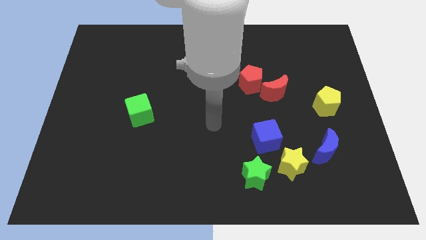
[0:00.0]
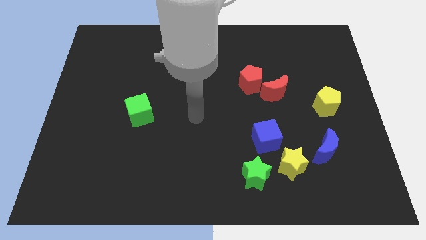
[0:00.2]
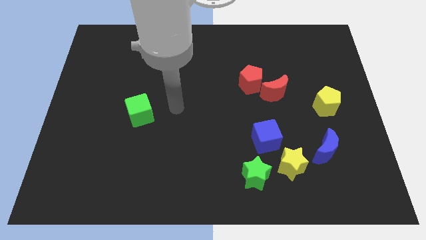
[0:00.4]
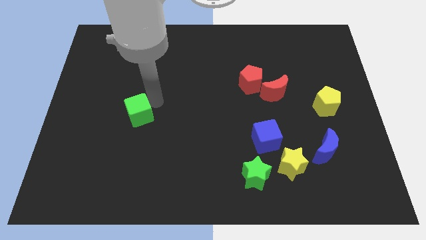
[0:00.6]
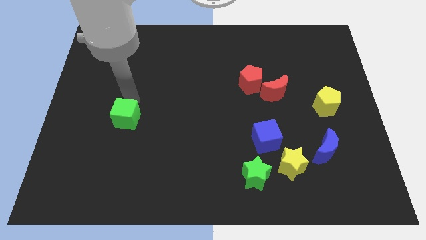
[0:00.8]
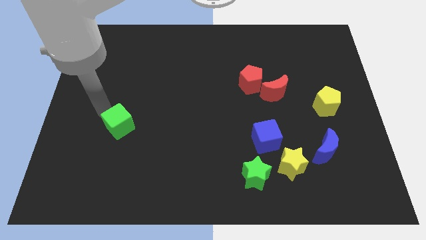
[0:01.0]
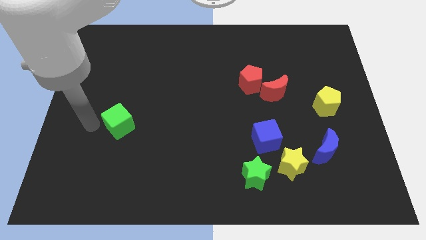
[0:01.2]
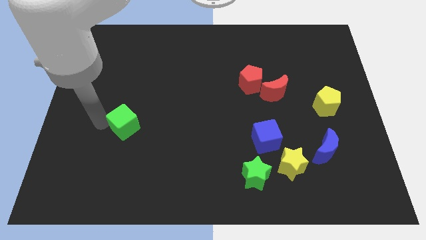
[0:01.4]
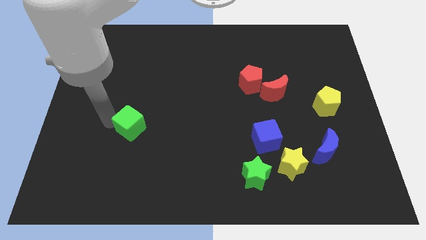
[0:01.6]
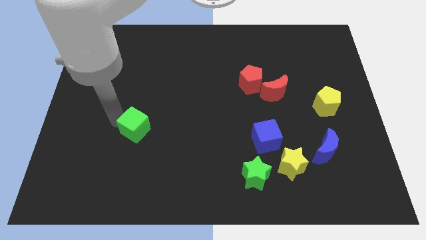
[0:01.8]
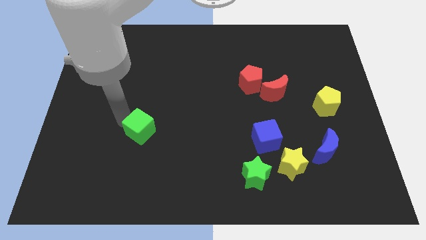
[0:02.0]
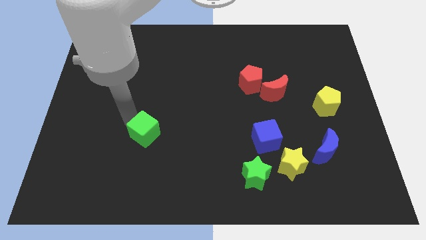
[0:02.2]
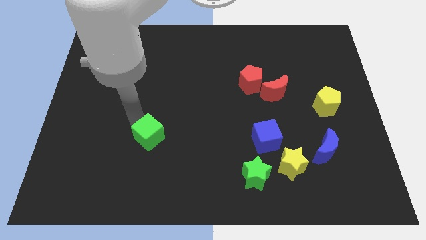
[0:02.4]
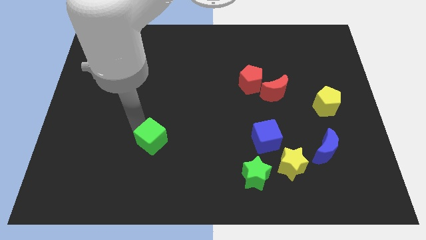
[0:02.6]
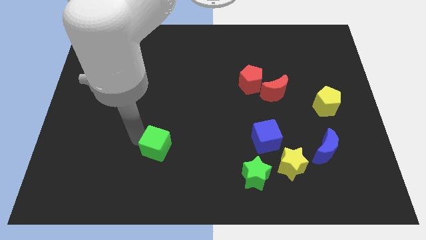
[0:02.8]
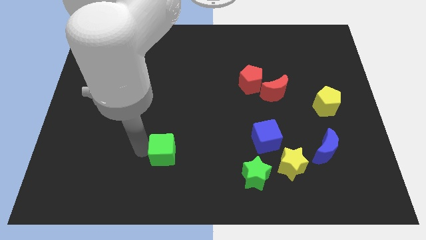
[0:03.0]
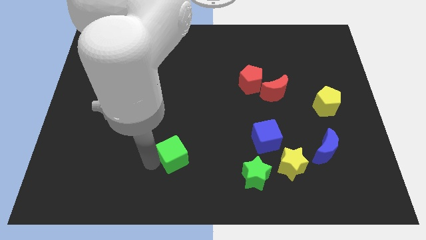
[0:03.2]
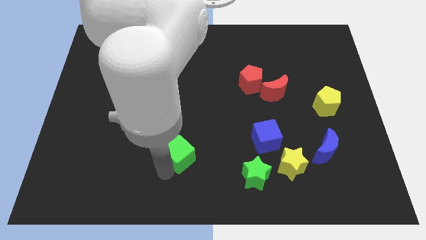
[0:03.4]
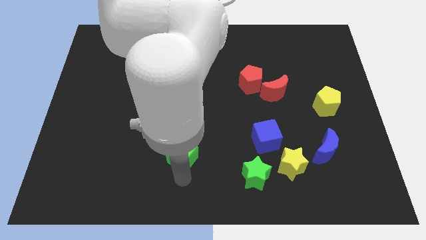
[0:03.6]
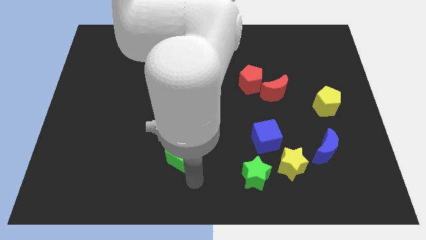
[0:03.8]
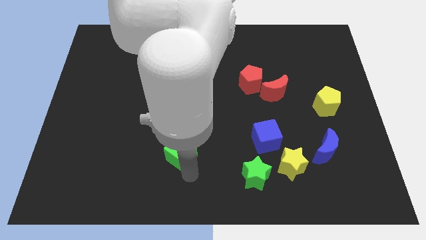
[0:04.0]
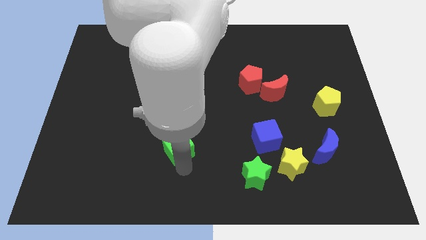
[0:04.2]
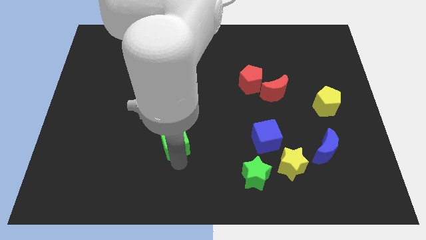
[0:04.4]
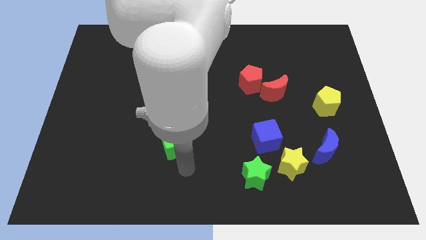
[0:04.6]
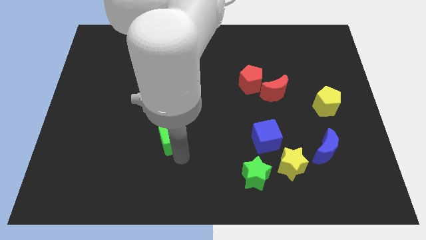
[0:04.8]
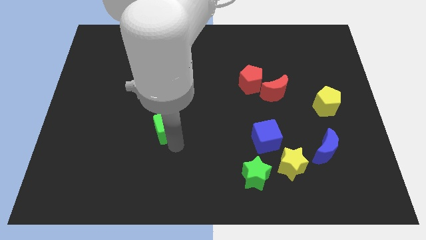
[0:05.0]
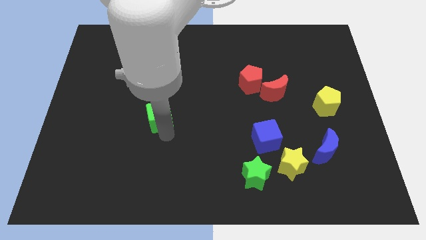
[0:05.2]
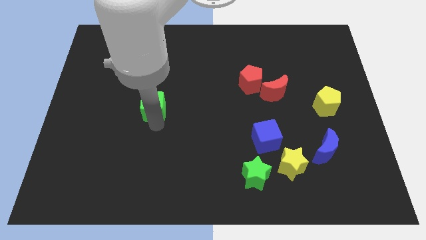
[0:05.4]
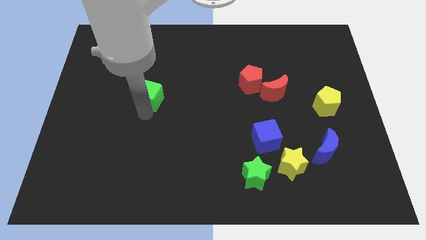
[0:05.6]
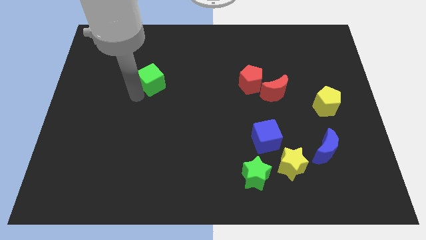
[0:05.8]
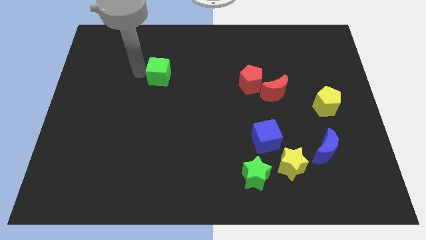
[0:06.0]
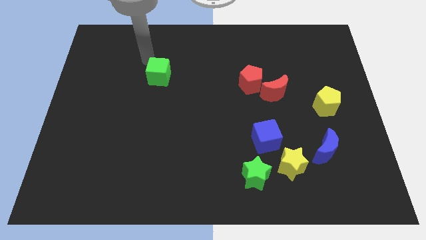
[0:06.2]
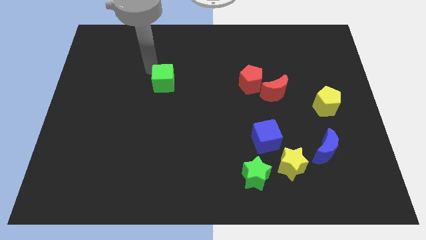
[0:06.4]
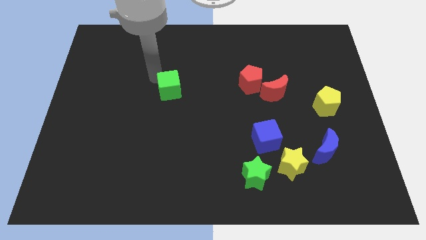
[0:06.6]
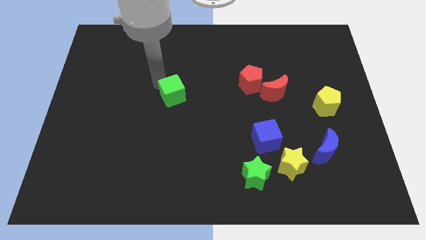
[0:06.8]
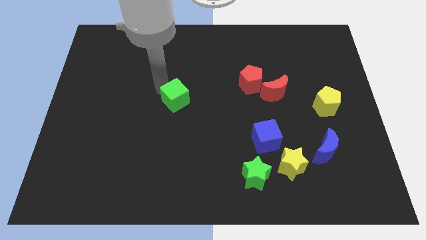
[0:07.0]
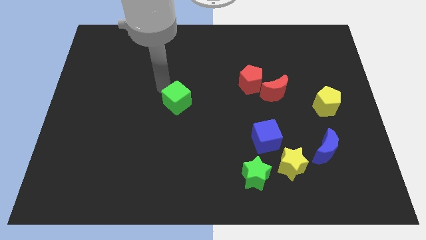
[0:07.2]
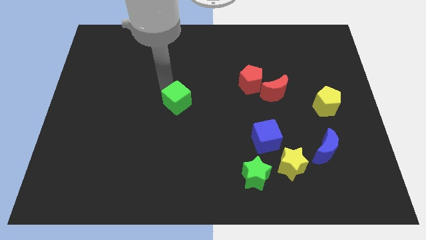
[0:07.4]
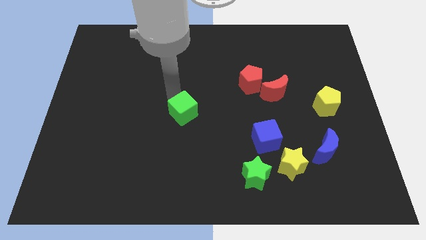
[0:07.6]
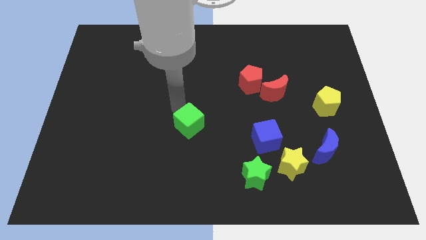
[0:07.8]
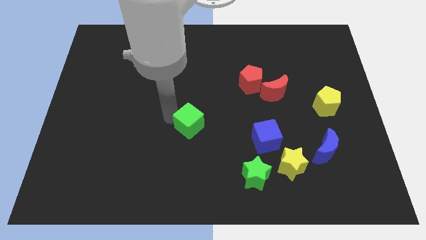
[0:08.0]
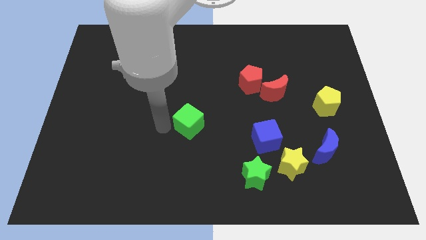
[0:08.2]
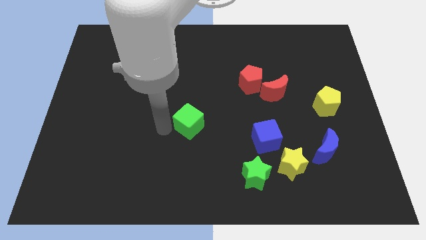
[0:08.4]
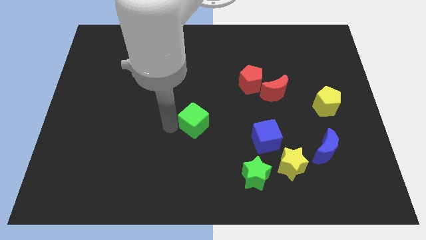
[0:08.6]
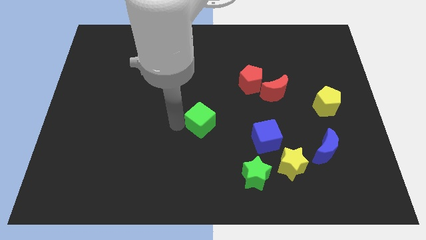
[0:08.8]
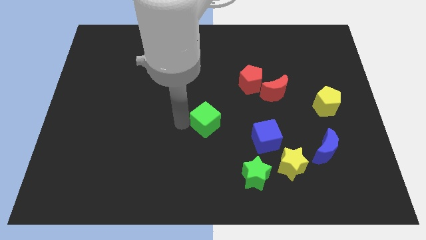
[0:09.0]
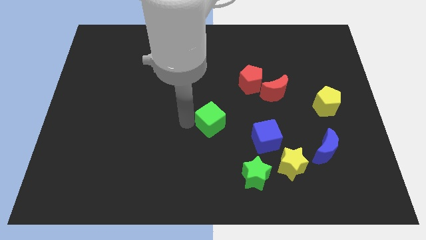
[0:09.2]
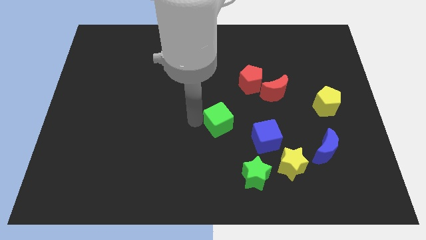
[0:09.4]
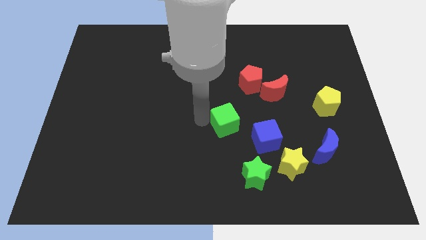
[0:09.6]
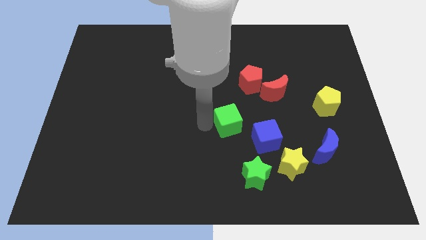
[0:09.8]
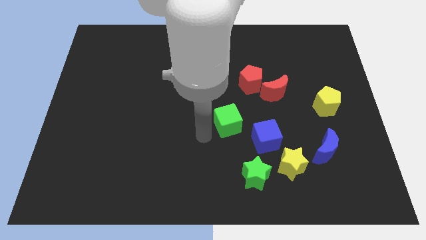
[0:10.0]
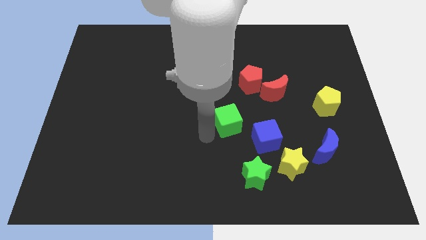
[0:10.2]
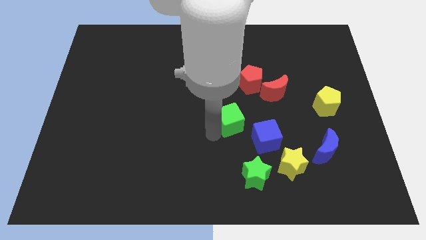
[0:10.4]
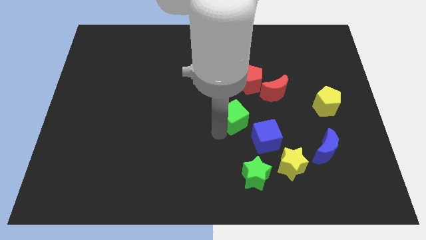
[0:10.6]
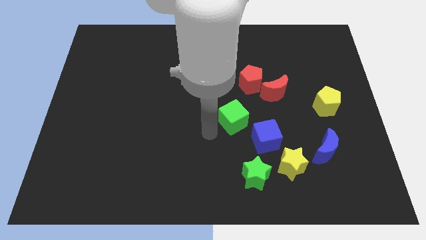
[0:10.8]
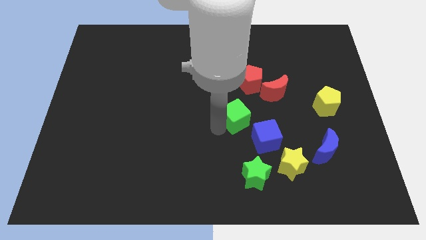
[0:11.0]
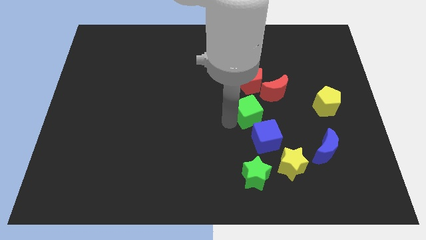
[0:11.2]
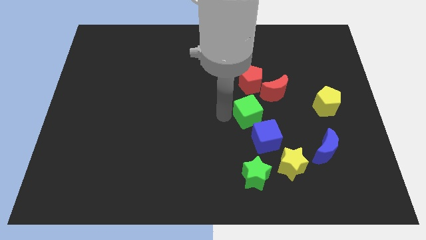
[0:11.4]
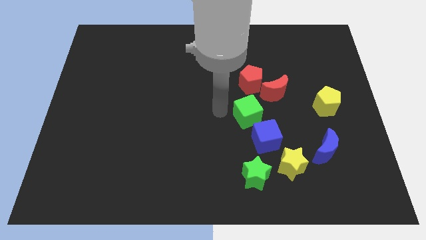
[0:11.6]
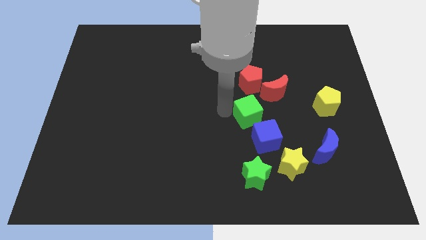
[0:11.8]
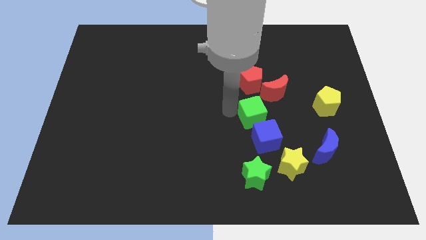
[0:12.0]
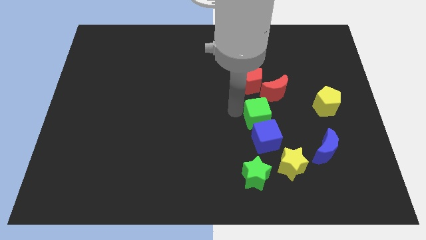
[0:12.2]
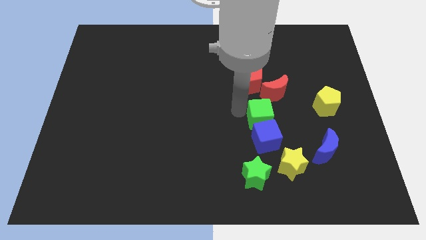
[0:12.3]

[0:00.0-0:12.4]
push the green cube to the top right of the blue cube

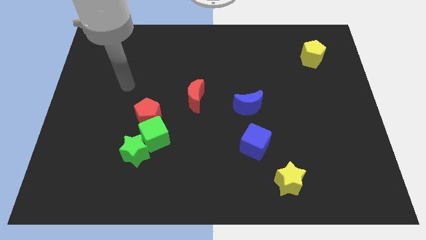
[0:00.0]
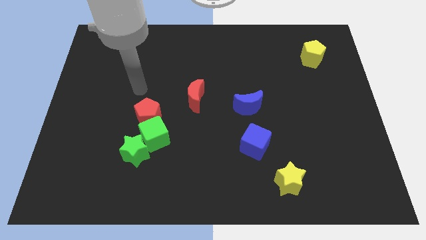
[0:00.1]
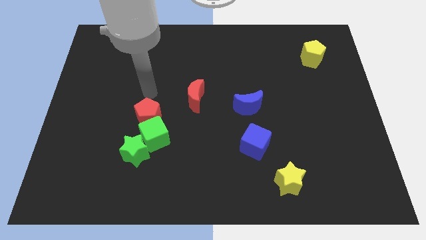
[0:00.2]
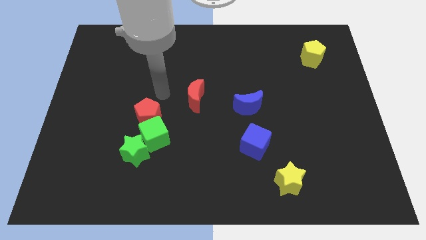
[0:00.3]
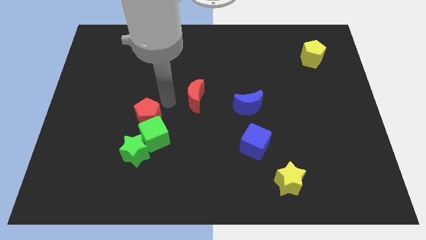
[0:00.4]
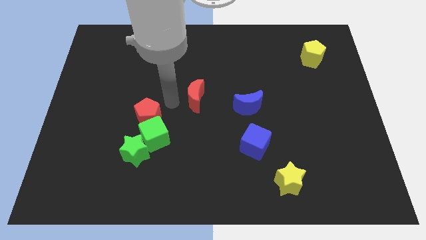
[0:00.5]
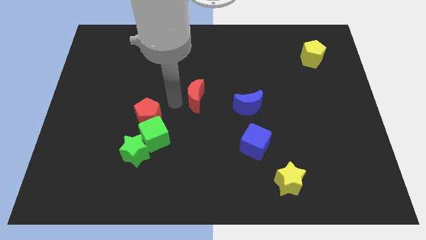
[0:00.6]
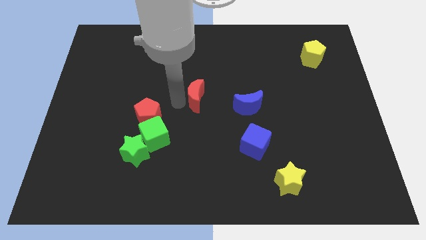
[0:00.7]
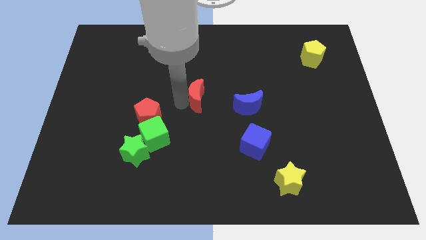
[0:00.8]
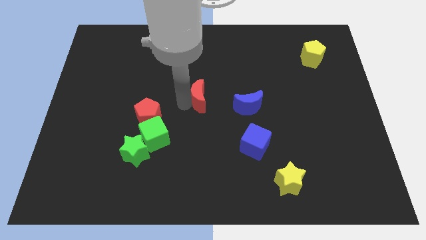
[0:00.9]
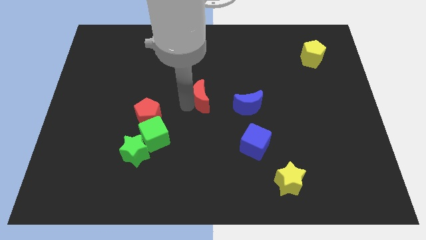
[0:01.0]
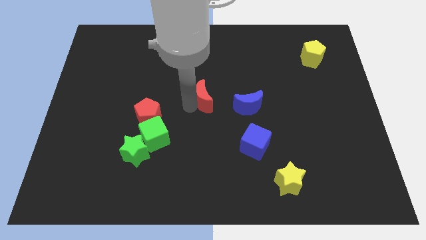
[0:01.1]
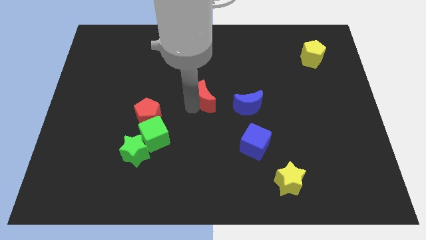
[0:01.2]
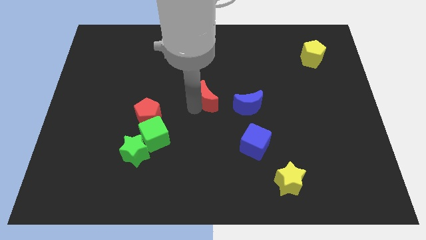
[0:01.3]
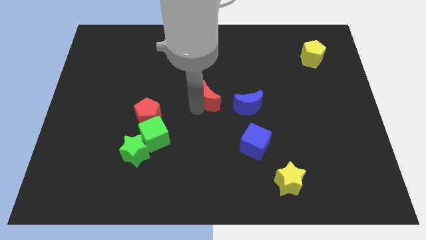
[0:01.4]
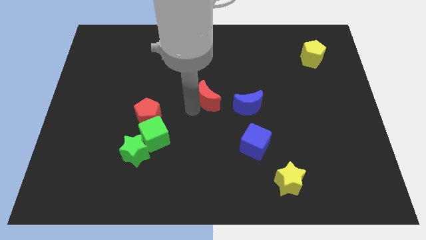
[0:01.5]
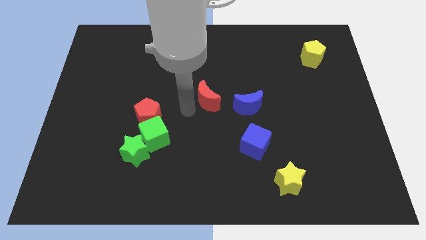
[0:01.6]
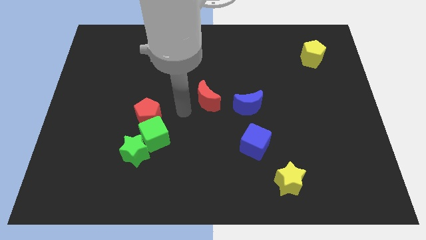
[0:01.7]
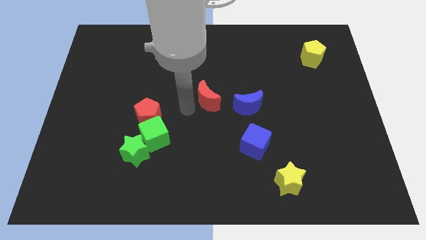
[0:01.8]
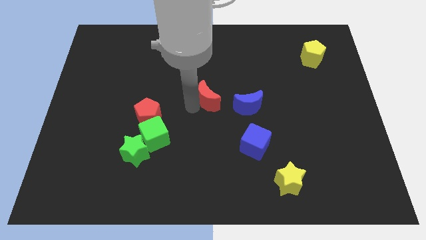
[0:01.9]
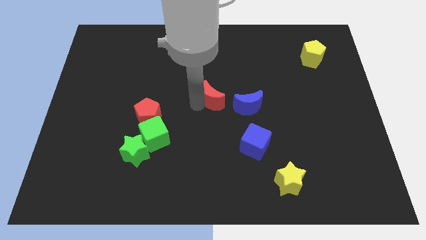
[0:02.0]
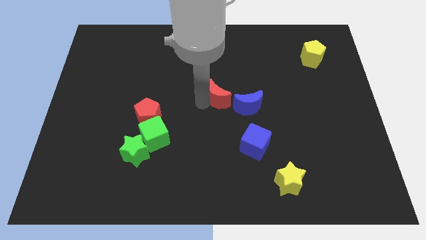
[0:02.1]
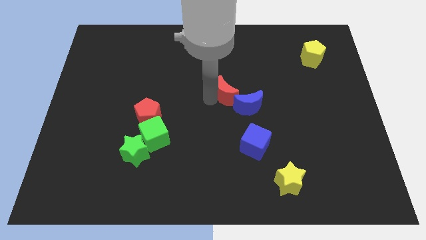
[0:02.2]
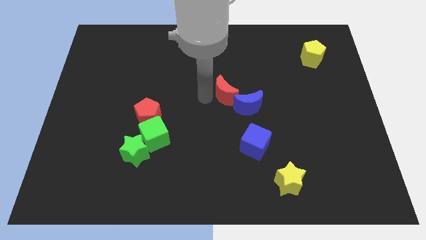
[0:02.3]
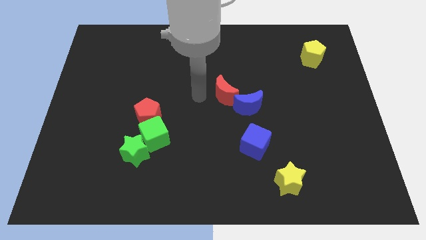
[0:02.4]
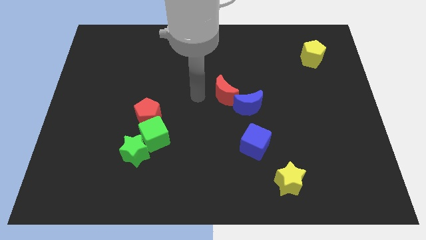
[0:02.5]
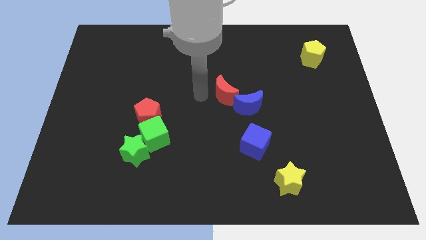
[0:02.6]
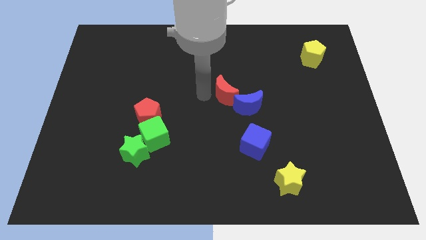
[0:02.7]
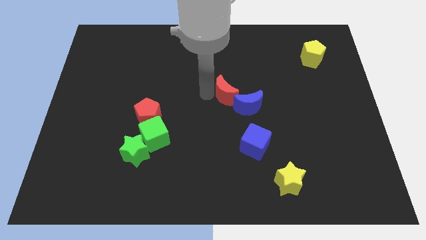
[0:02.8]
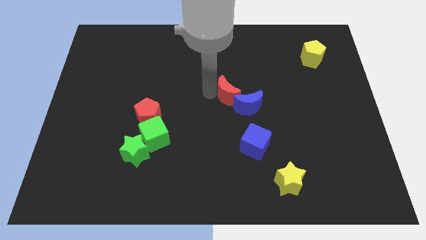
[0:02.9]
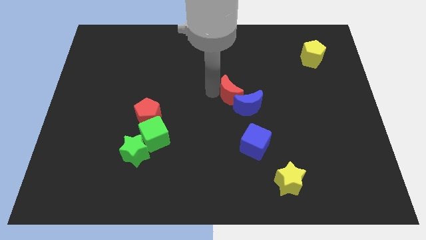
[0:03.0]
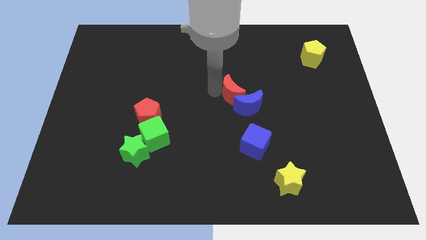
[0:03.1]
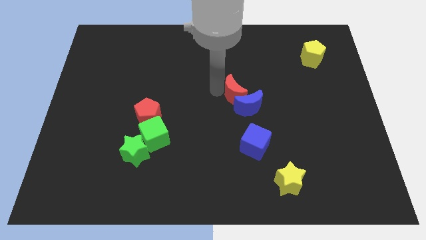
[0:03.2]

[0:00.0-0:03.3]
push the red moon above the blue cube
